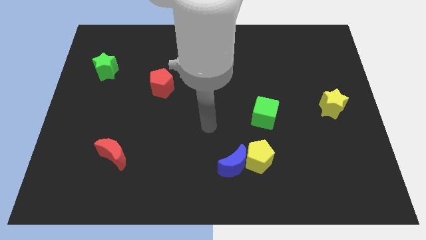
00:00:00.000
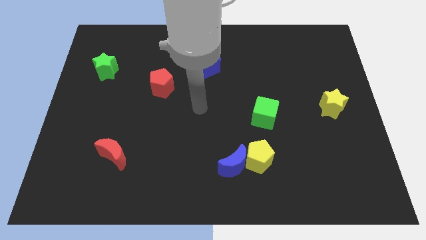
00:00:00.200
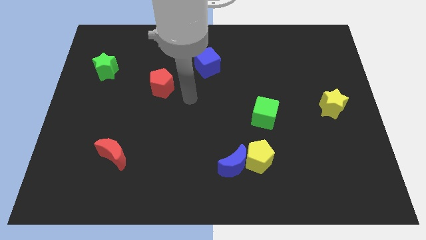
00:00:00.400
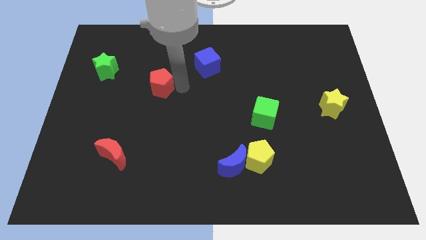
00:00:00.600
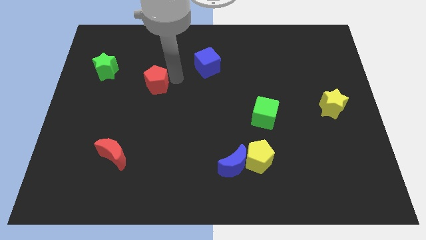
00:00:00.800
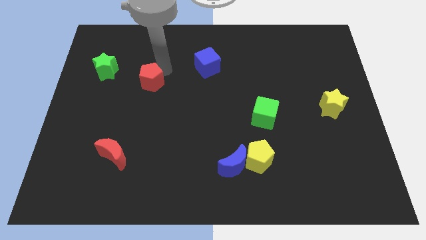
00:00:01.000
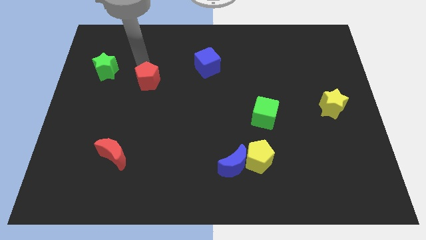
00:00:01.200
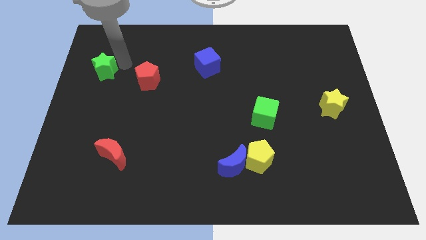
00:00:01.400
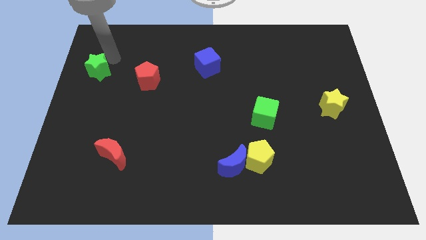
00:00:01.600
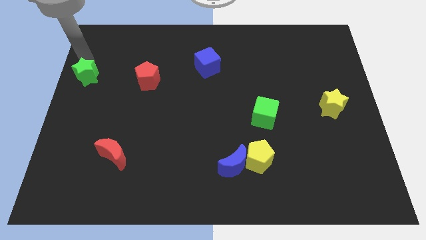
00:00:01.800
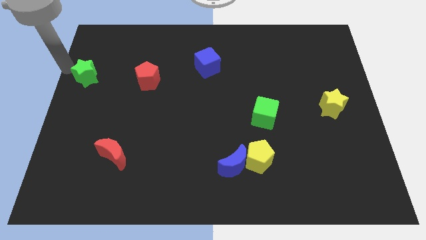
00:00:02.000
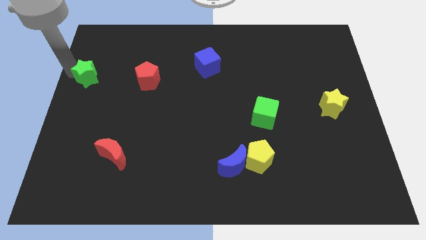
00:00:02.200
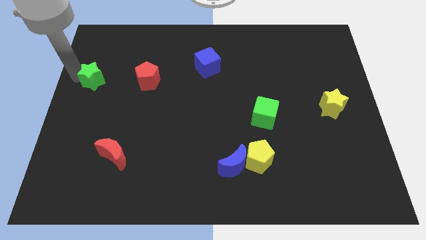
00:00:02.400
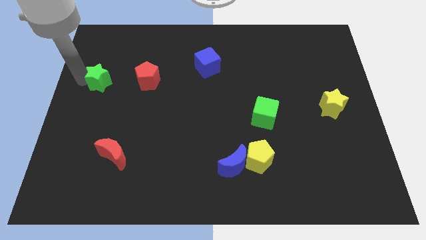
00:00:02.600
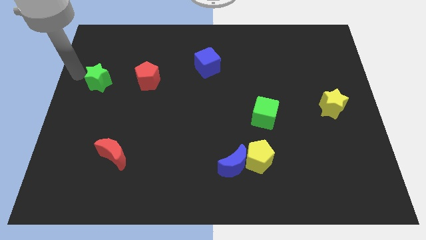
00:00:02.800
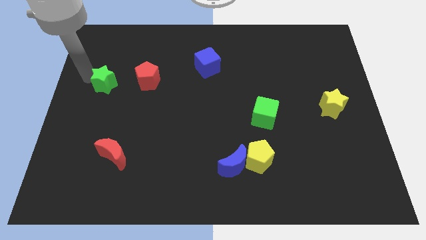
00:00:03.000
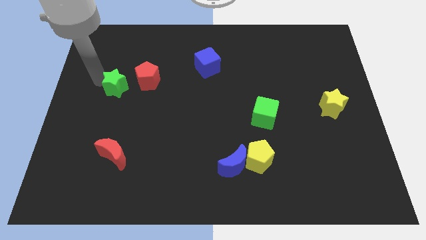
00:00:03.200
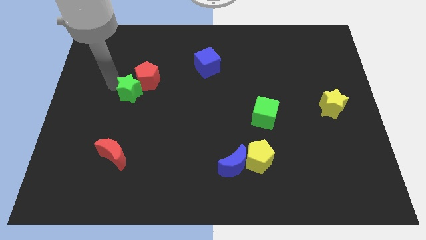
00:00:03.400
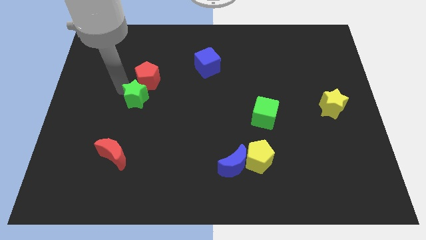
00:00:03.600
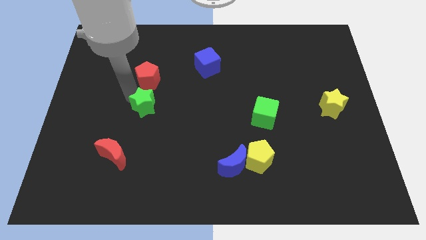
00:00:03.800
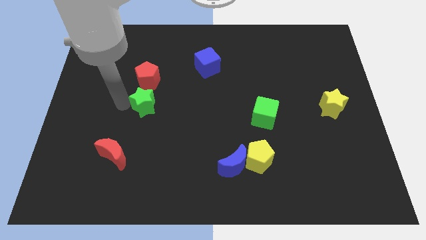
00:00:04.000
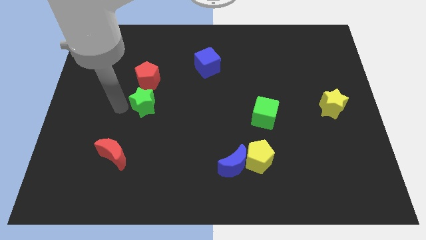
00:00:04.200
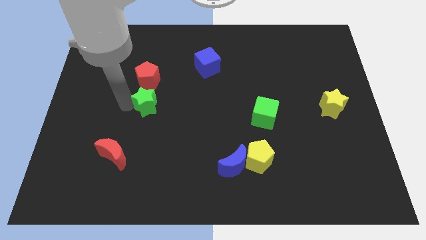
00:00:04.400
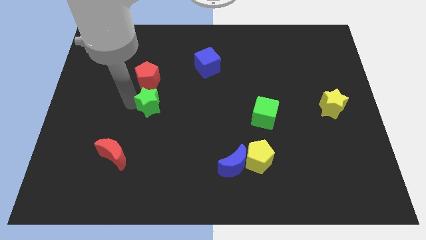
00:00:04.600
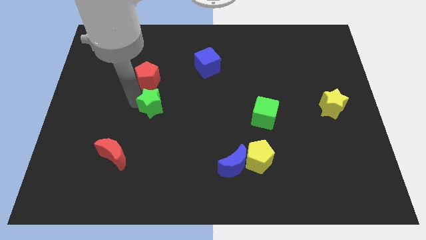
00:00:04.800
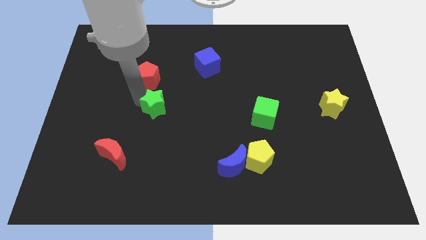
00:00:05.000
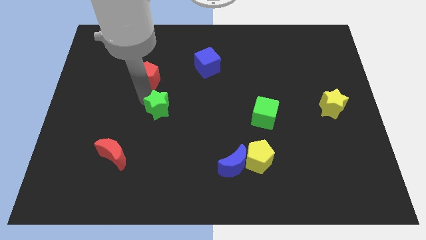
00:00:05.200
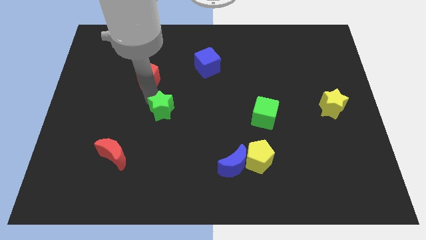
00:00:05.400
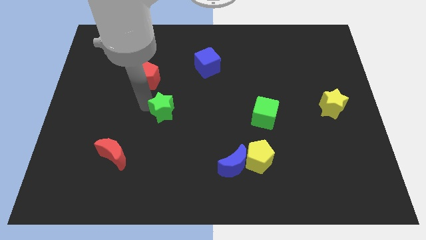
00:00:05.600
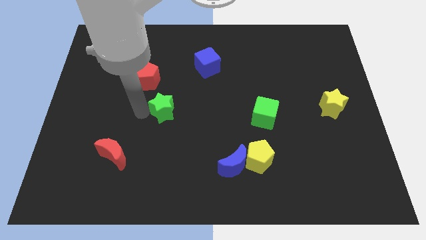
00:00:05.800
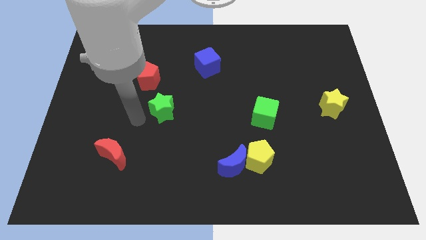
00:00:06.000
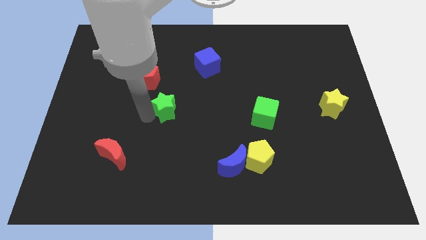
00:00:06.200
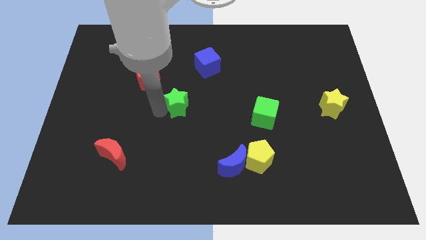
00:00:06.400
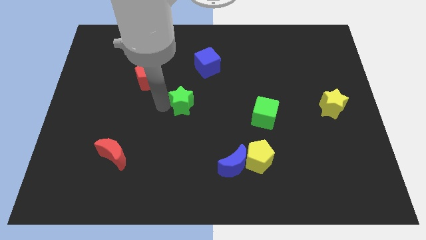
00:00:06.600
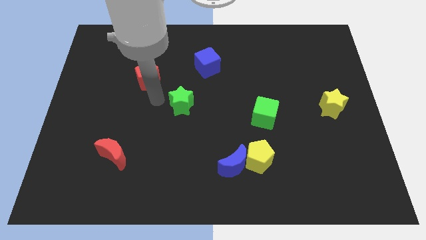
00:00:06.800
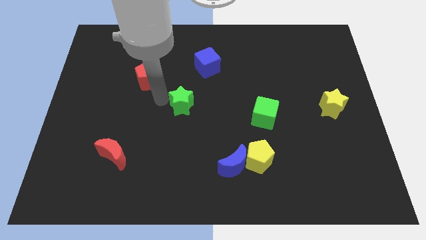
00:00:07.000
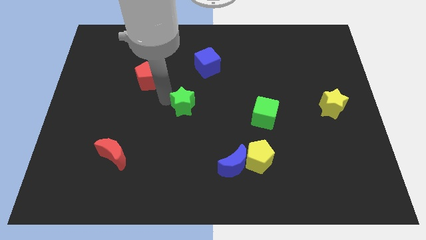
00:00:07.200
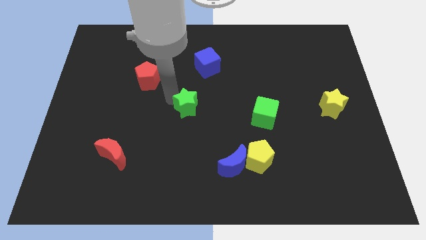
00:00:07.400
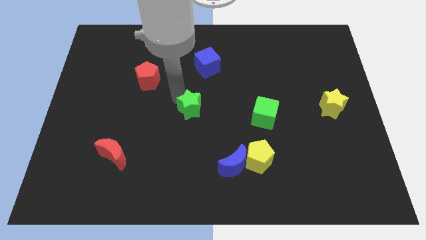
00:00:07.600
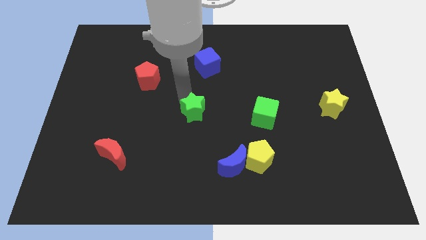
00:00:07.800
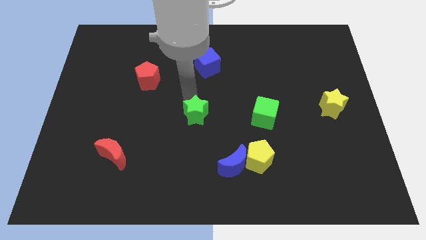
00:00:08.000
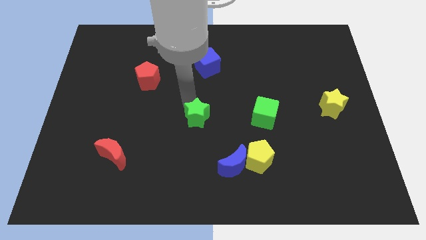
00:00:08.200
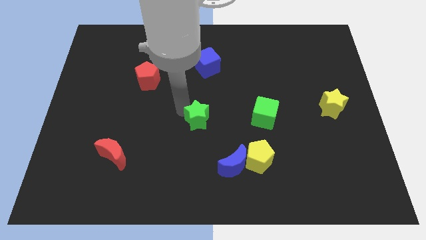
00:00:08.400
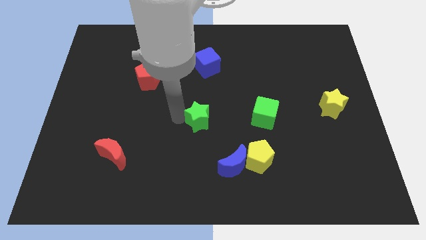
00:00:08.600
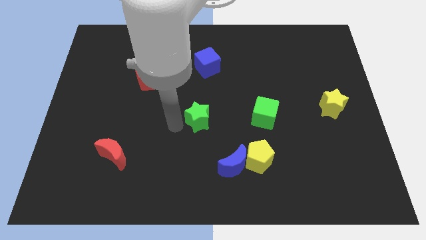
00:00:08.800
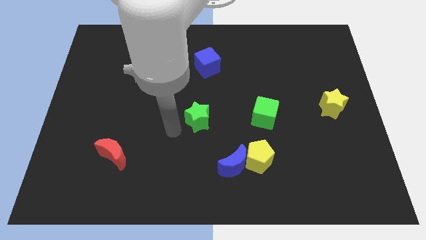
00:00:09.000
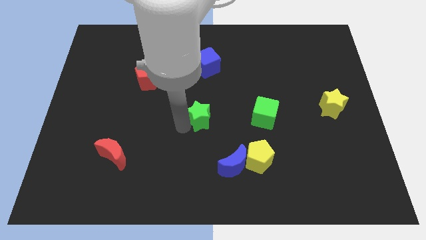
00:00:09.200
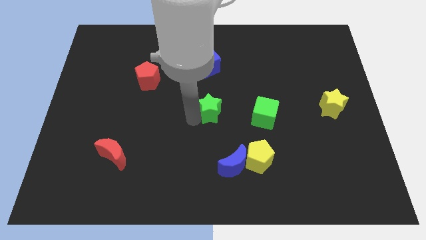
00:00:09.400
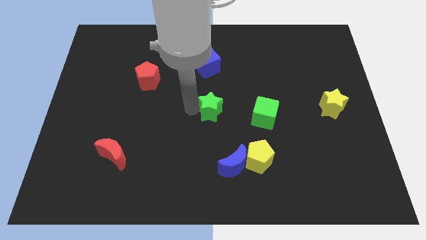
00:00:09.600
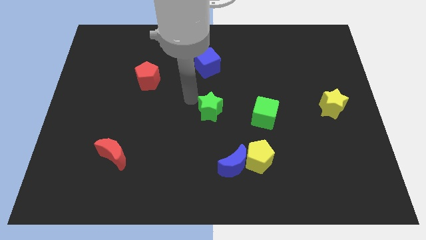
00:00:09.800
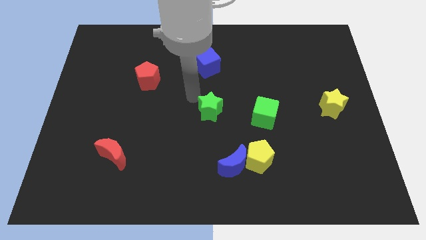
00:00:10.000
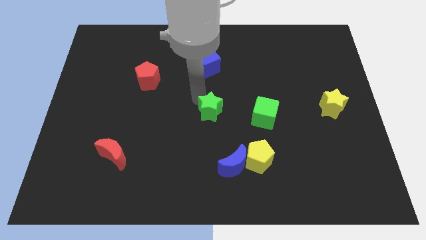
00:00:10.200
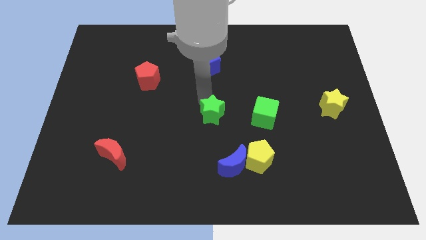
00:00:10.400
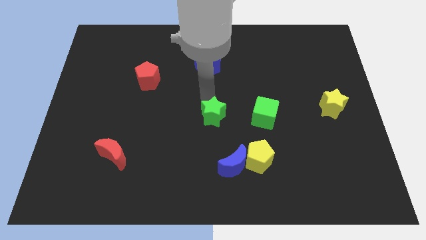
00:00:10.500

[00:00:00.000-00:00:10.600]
push the green star to the top of the blue moon
